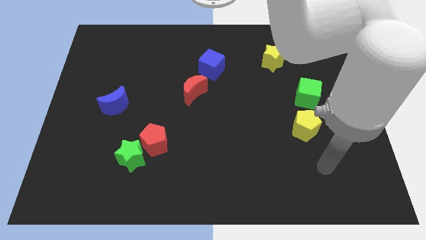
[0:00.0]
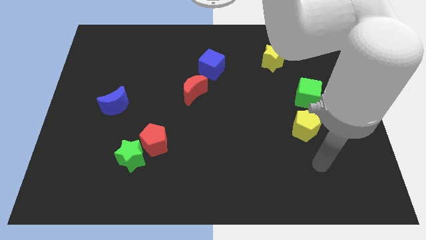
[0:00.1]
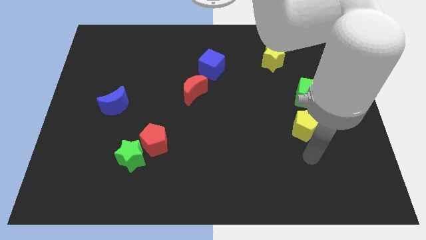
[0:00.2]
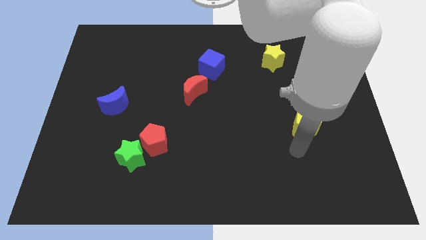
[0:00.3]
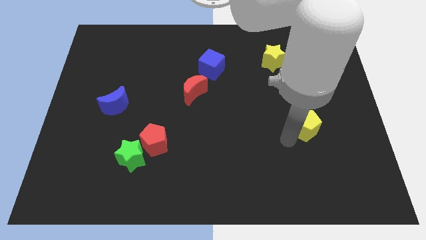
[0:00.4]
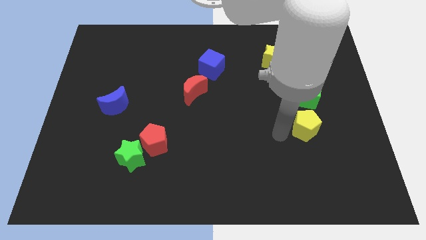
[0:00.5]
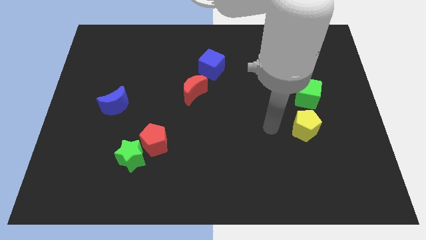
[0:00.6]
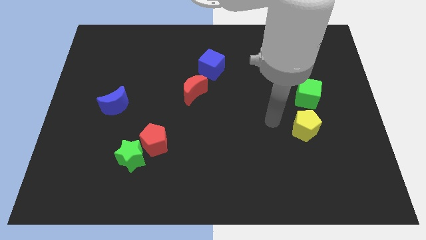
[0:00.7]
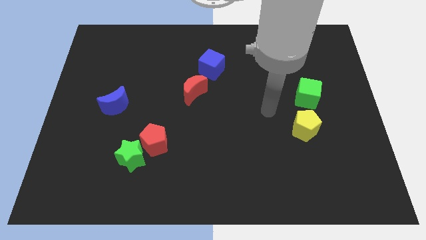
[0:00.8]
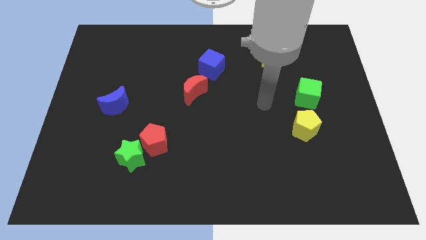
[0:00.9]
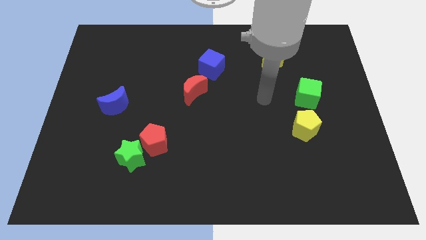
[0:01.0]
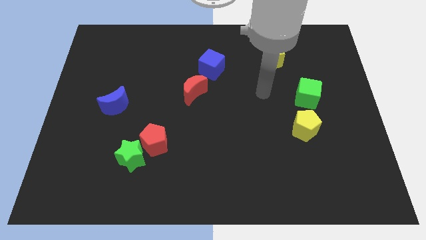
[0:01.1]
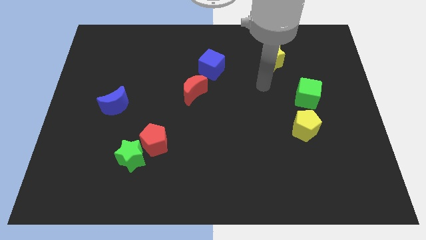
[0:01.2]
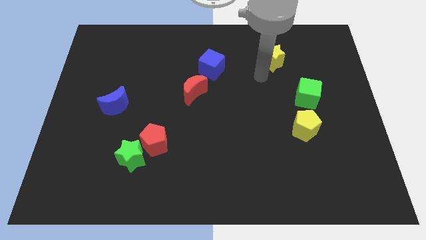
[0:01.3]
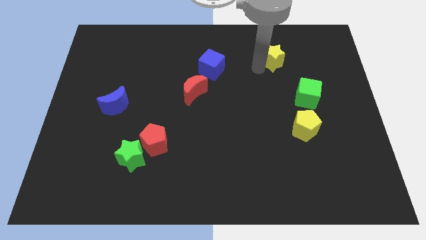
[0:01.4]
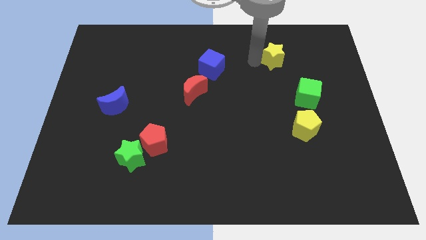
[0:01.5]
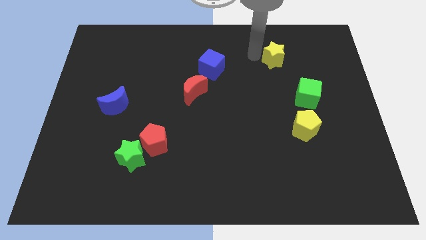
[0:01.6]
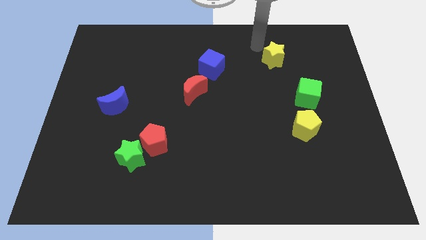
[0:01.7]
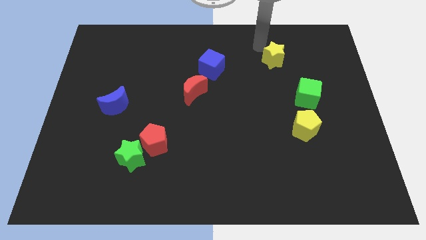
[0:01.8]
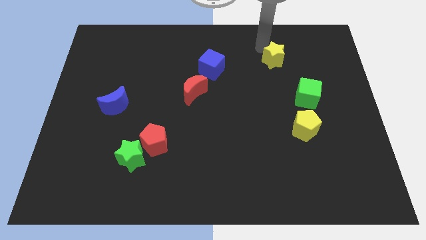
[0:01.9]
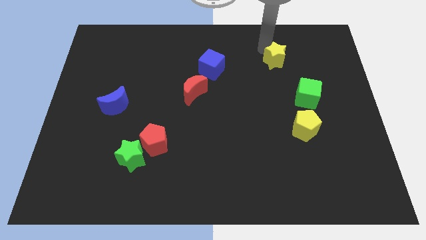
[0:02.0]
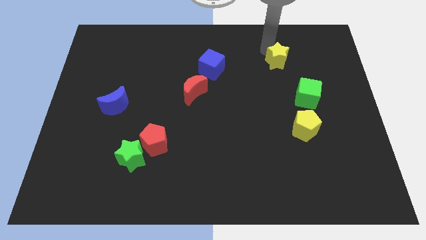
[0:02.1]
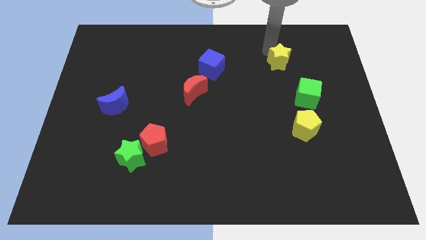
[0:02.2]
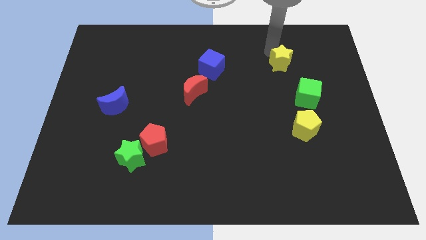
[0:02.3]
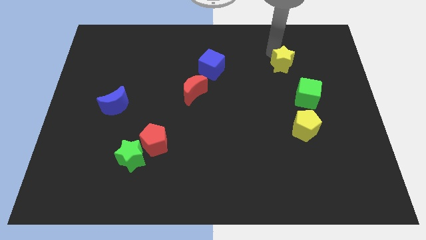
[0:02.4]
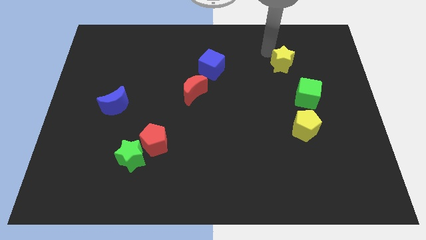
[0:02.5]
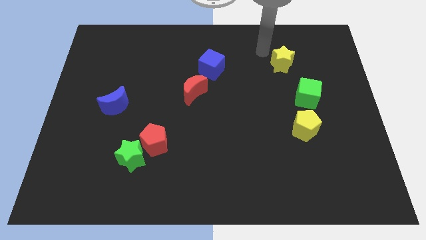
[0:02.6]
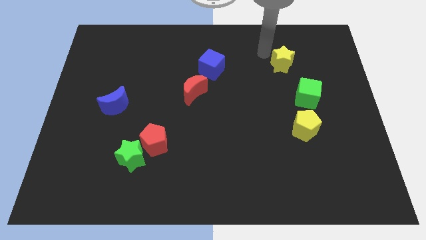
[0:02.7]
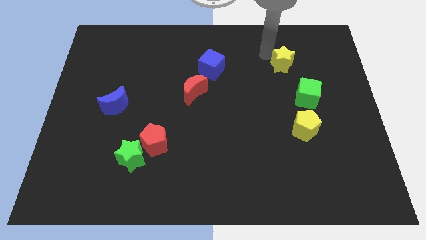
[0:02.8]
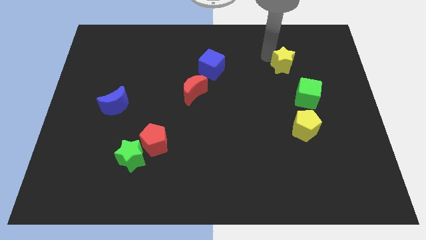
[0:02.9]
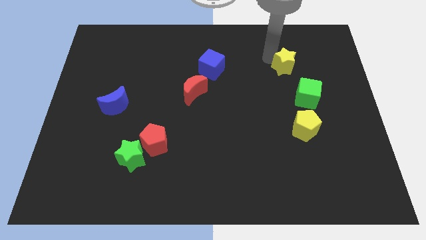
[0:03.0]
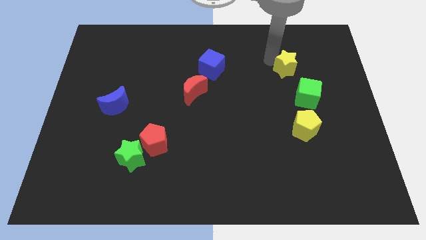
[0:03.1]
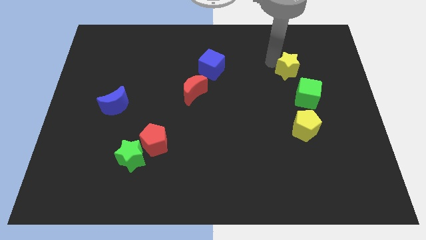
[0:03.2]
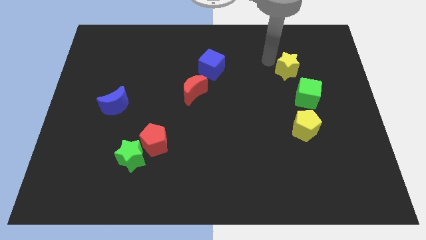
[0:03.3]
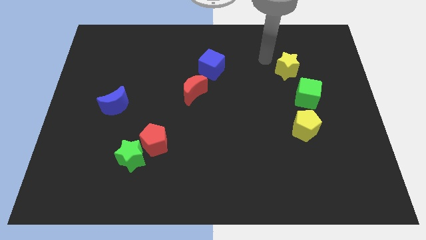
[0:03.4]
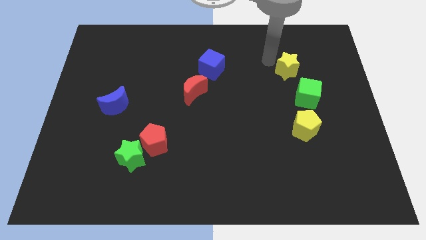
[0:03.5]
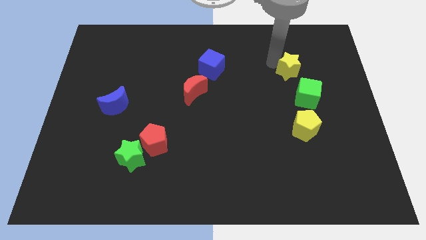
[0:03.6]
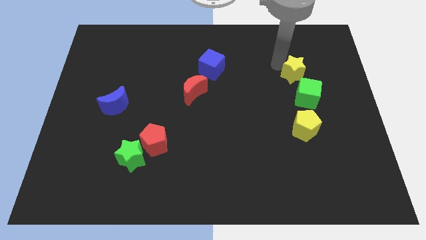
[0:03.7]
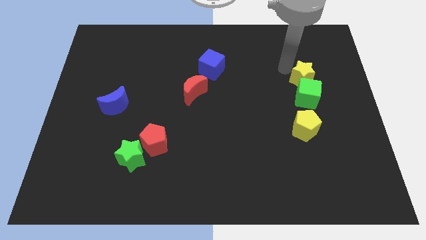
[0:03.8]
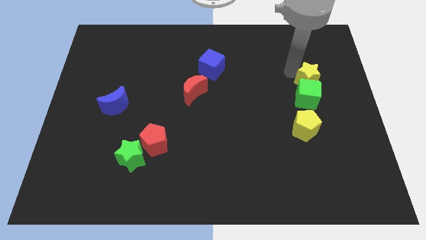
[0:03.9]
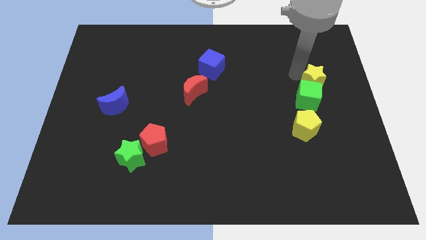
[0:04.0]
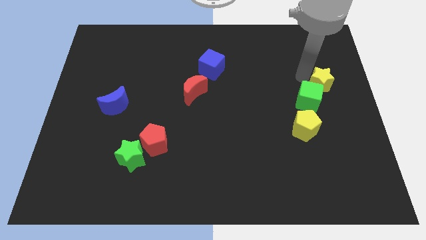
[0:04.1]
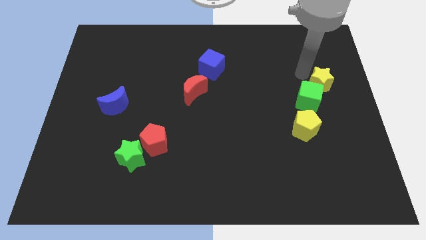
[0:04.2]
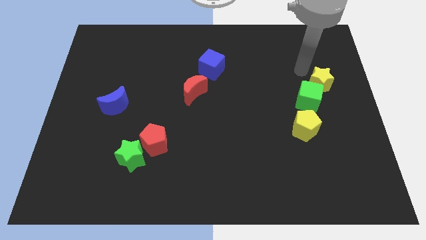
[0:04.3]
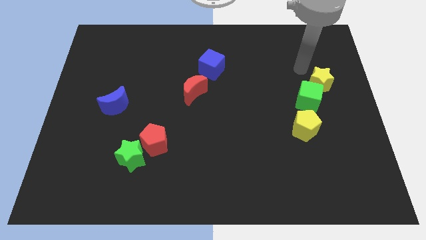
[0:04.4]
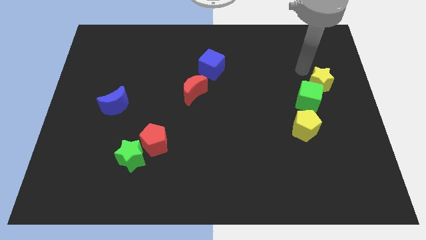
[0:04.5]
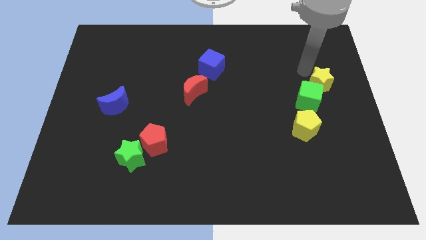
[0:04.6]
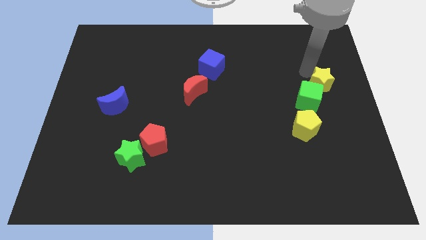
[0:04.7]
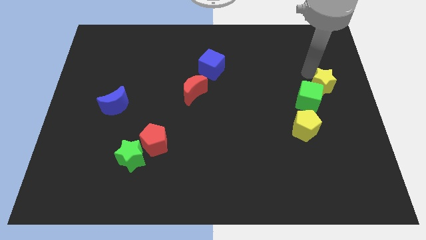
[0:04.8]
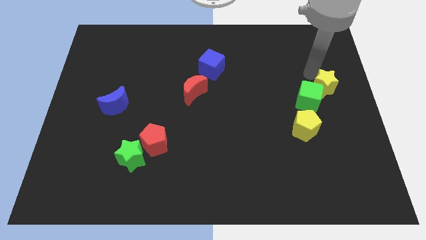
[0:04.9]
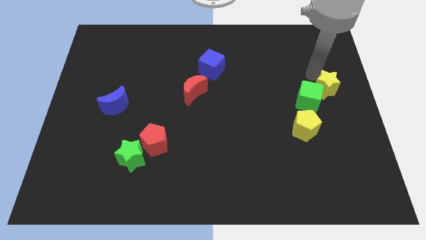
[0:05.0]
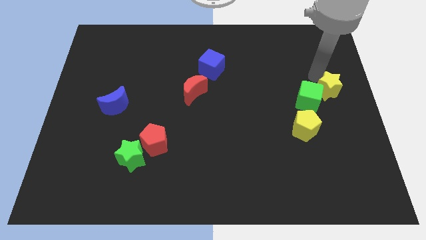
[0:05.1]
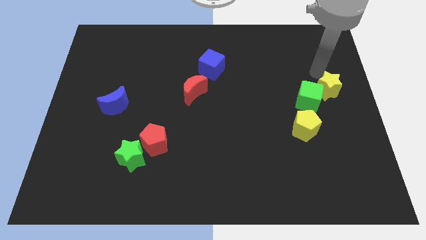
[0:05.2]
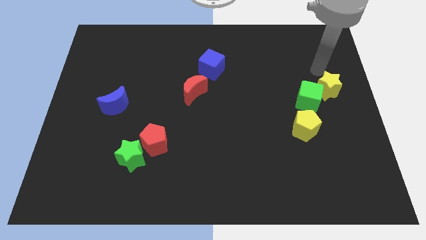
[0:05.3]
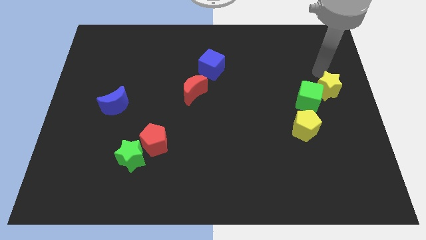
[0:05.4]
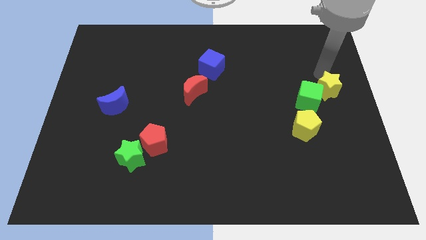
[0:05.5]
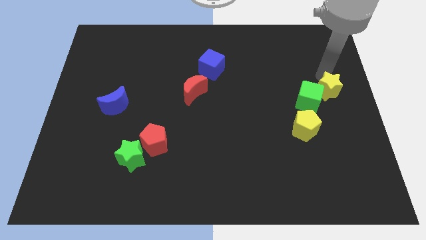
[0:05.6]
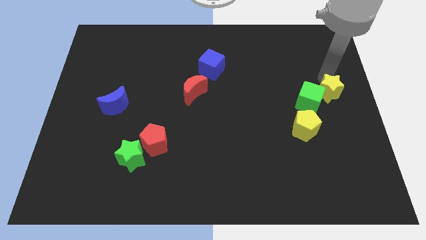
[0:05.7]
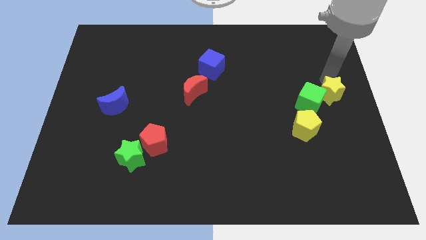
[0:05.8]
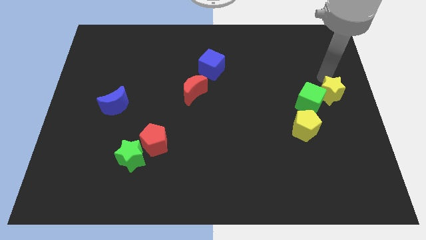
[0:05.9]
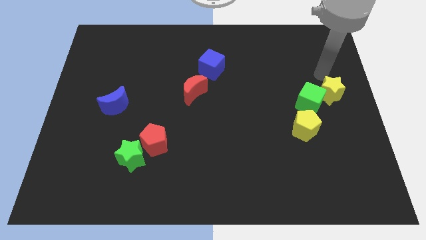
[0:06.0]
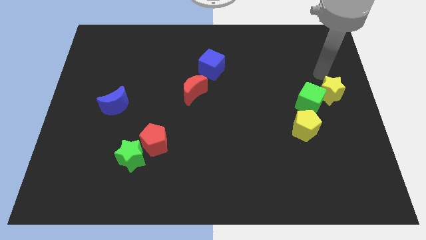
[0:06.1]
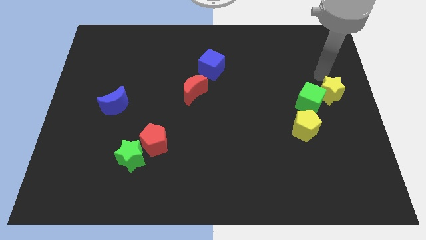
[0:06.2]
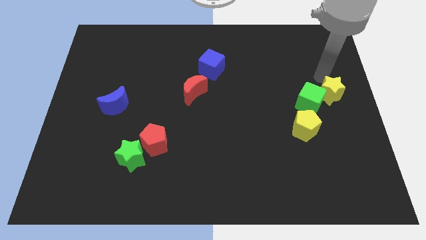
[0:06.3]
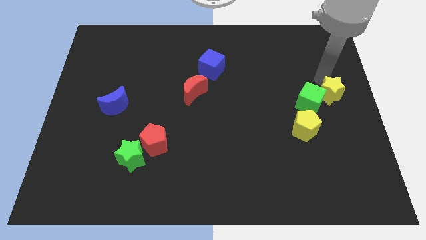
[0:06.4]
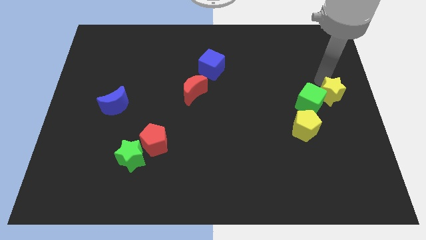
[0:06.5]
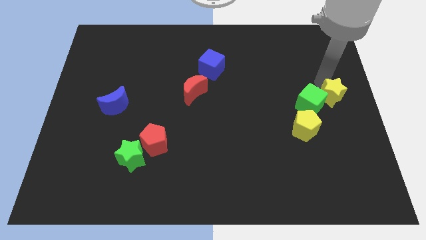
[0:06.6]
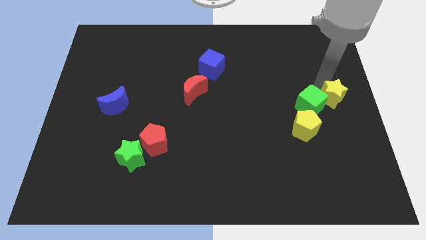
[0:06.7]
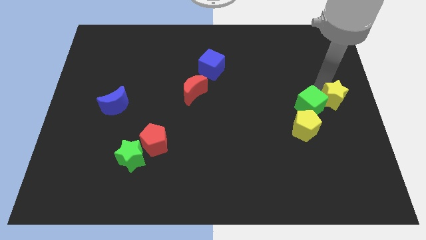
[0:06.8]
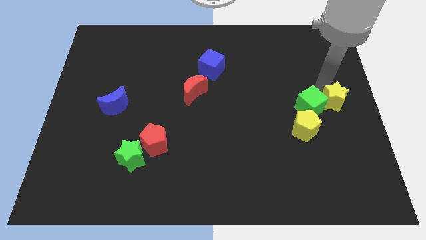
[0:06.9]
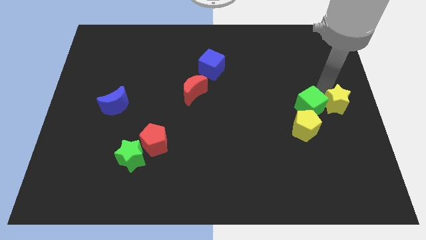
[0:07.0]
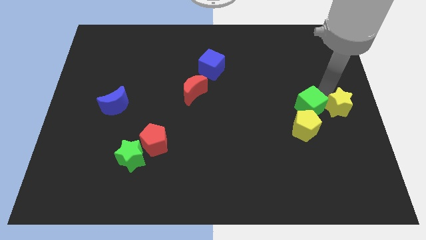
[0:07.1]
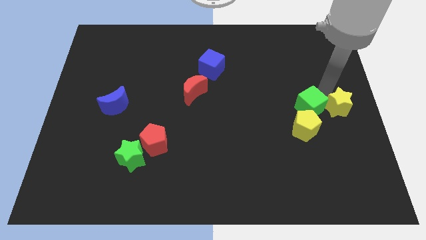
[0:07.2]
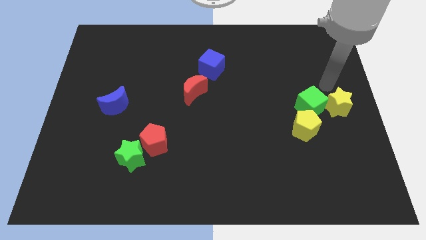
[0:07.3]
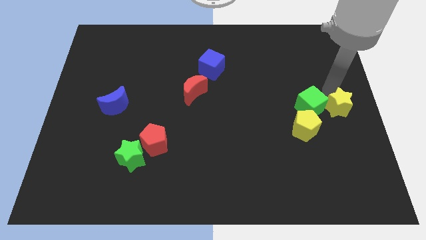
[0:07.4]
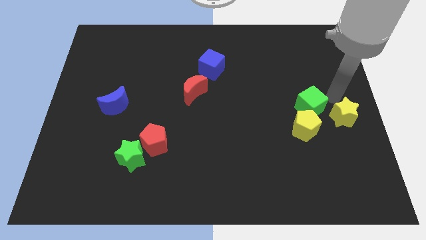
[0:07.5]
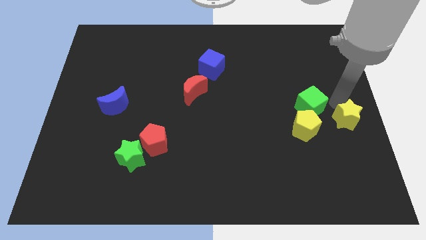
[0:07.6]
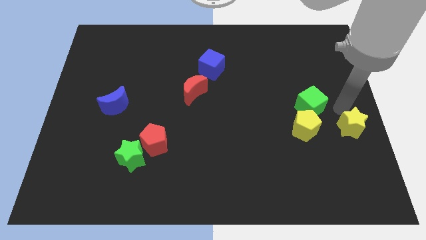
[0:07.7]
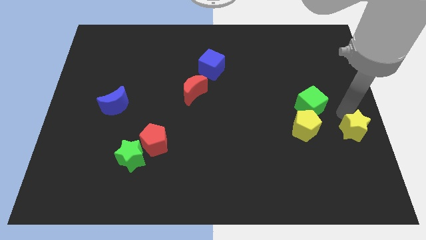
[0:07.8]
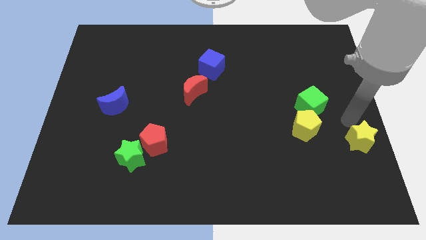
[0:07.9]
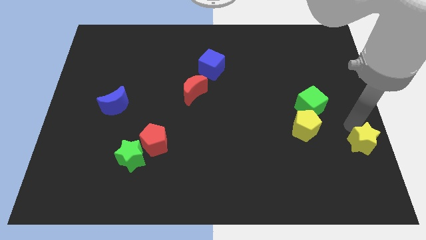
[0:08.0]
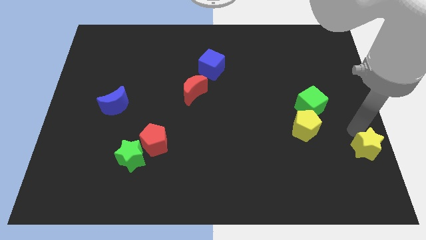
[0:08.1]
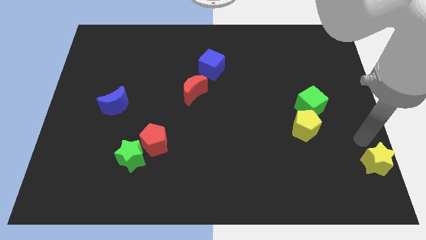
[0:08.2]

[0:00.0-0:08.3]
move the yellow star to the lower right corner
